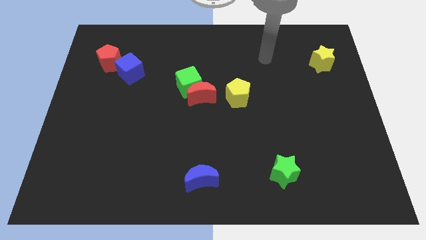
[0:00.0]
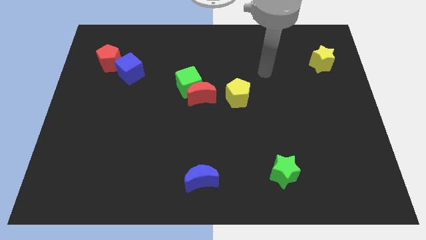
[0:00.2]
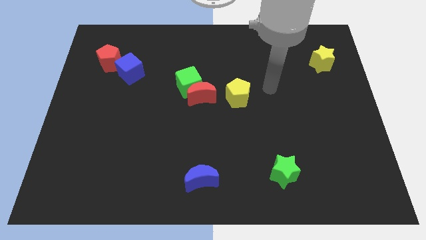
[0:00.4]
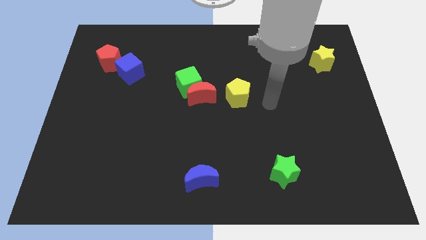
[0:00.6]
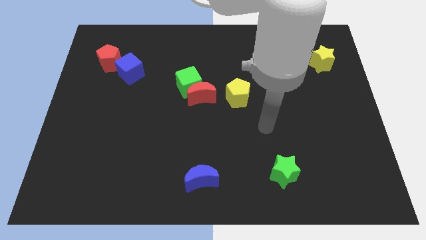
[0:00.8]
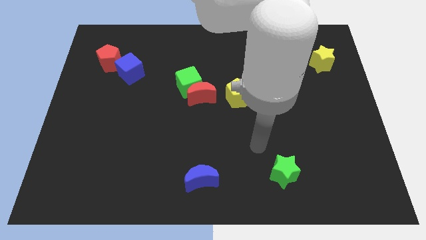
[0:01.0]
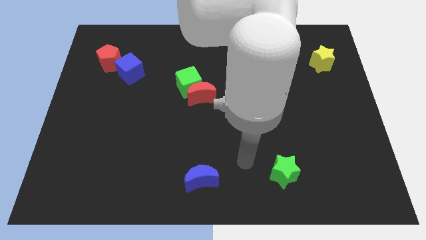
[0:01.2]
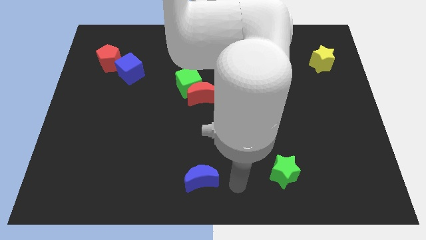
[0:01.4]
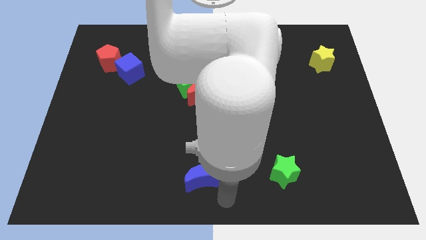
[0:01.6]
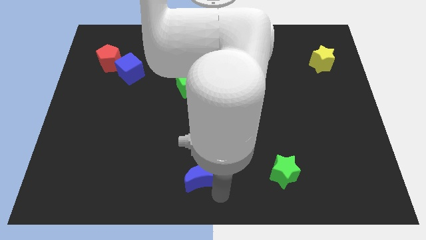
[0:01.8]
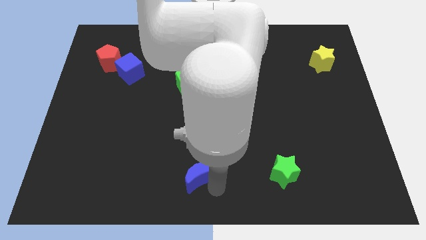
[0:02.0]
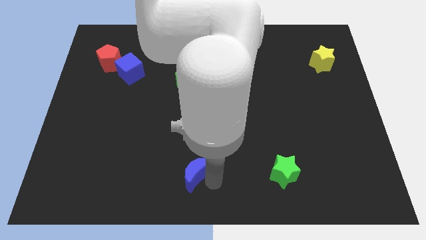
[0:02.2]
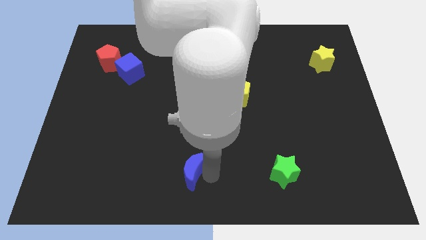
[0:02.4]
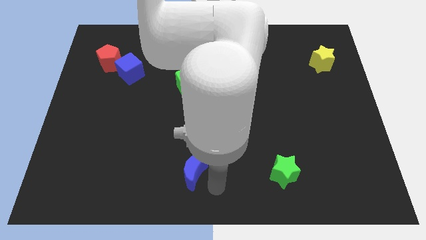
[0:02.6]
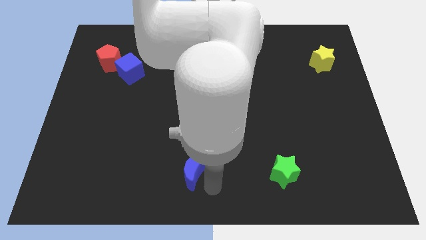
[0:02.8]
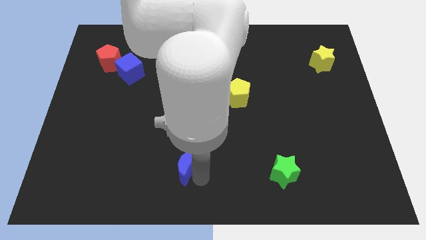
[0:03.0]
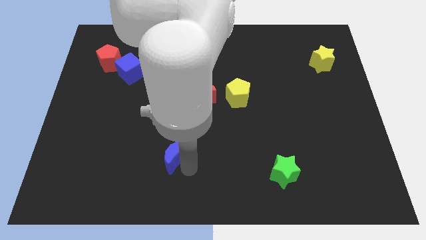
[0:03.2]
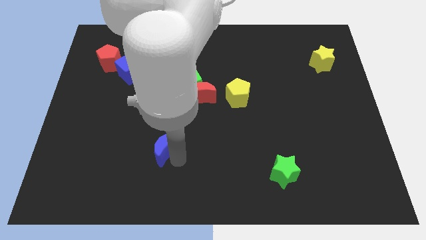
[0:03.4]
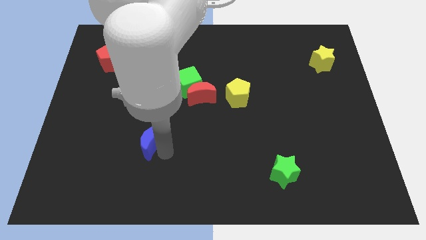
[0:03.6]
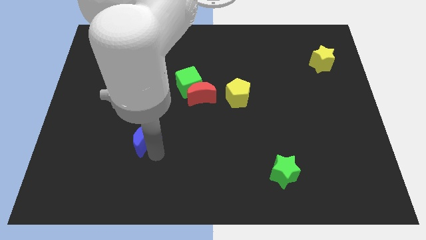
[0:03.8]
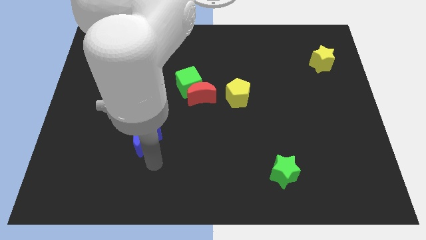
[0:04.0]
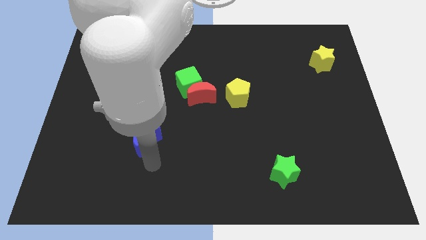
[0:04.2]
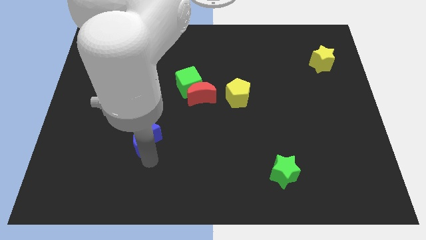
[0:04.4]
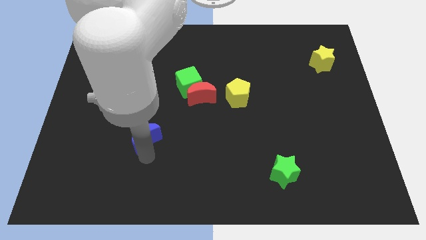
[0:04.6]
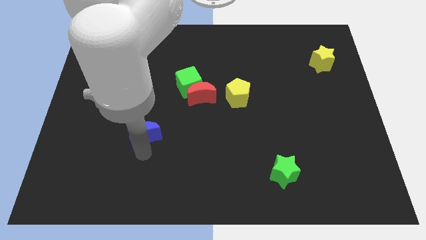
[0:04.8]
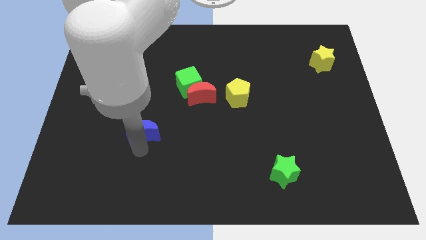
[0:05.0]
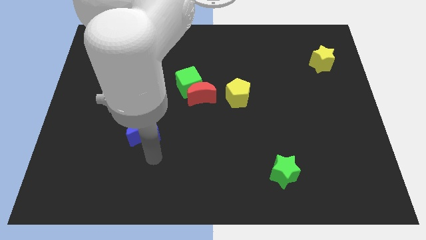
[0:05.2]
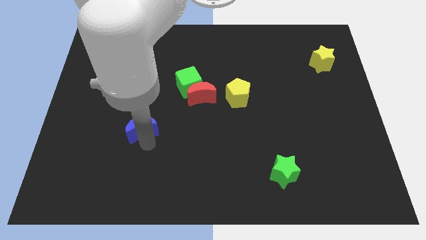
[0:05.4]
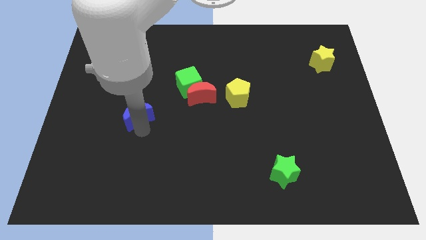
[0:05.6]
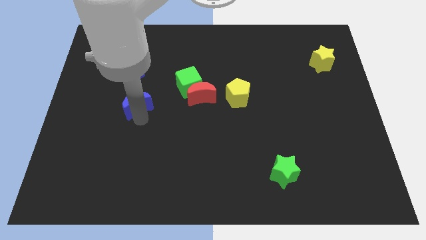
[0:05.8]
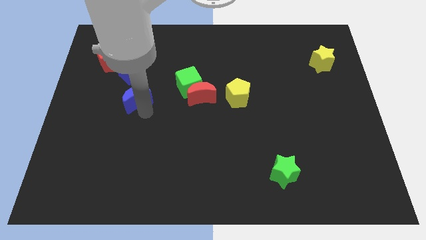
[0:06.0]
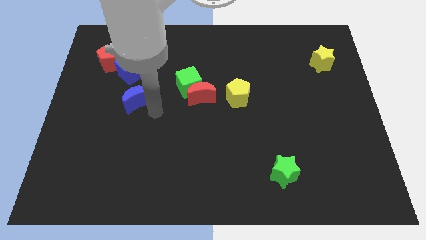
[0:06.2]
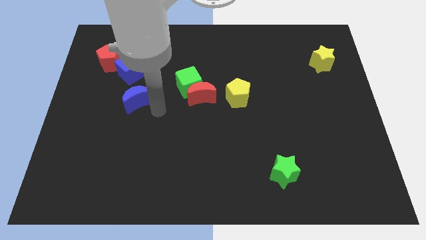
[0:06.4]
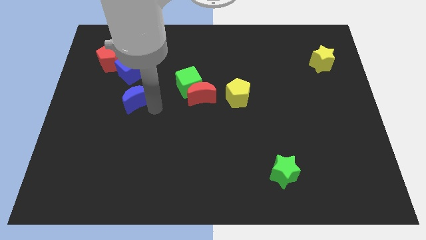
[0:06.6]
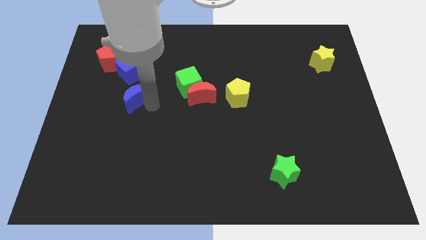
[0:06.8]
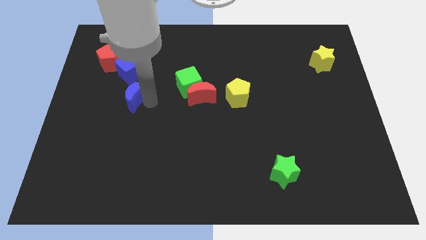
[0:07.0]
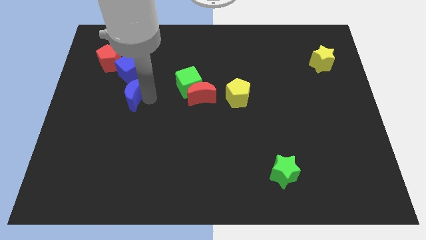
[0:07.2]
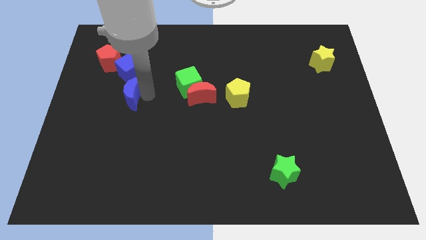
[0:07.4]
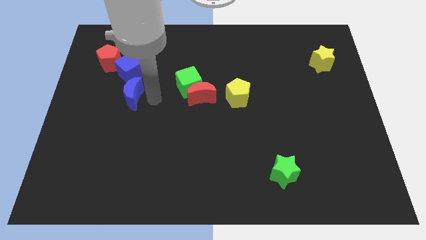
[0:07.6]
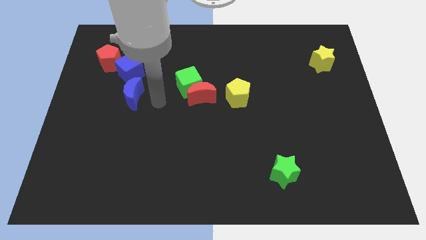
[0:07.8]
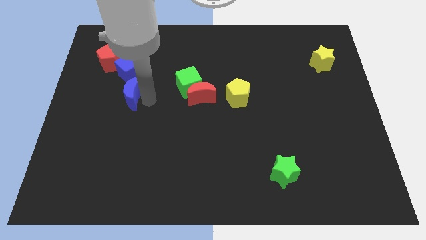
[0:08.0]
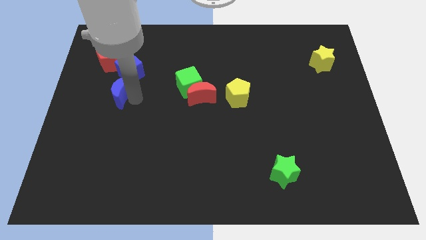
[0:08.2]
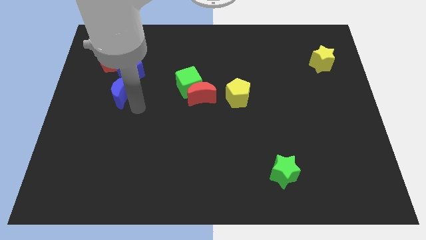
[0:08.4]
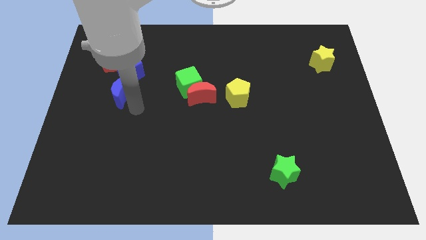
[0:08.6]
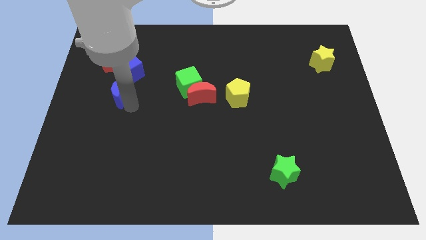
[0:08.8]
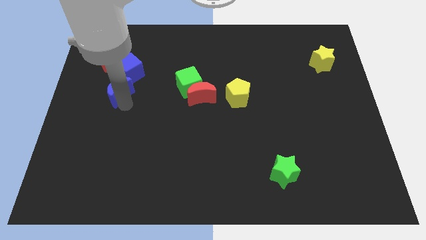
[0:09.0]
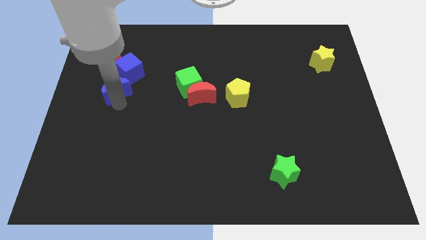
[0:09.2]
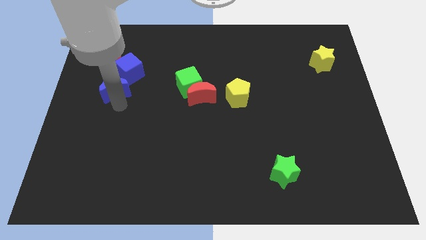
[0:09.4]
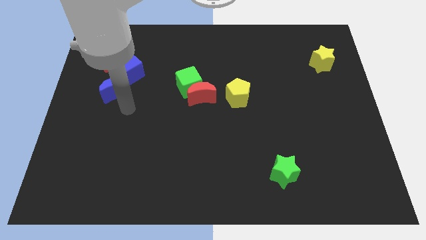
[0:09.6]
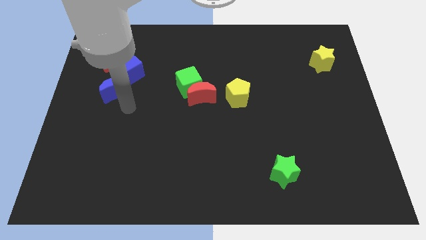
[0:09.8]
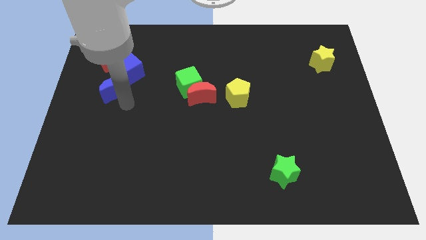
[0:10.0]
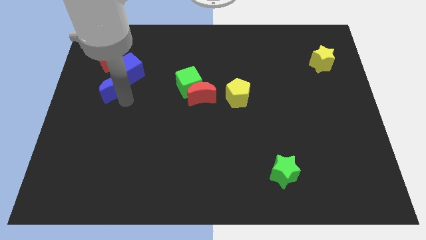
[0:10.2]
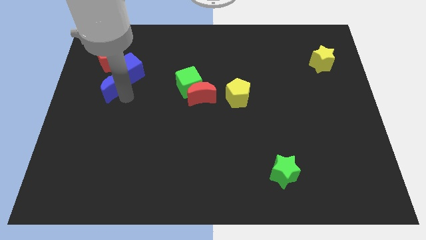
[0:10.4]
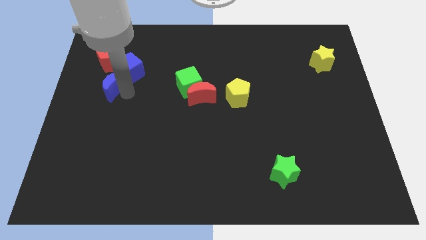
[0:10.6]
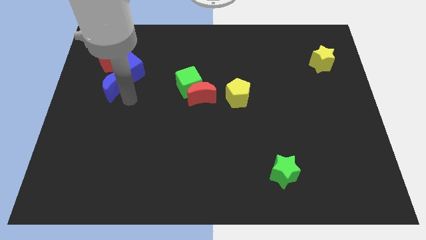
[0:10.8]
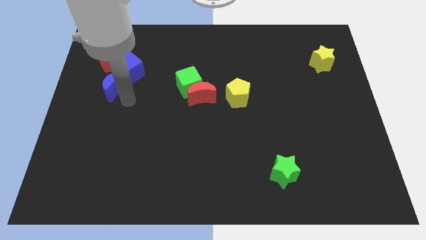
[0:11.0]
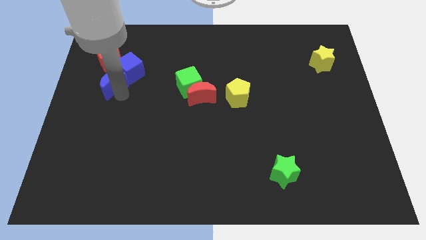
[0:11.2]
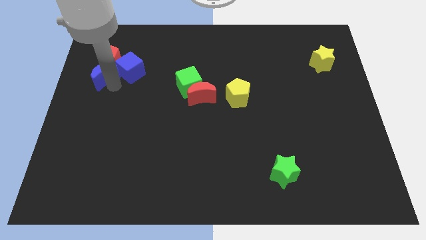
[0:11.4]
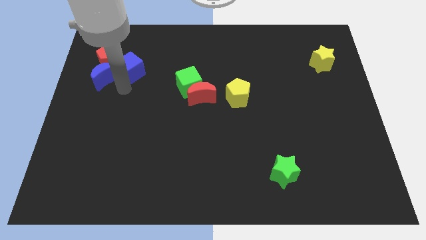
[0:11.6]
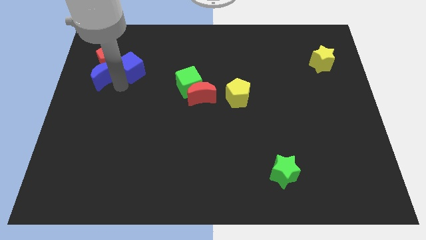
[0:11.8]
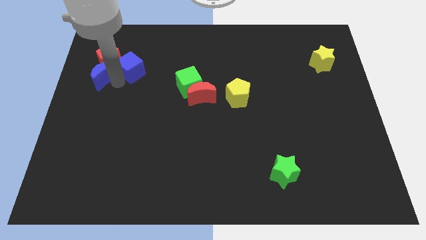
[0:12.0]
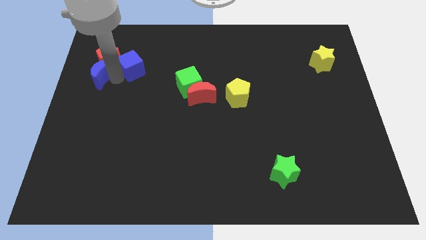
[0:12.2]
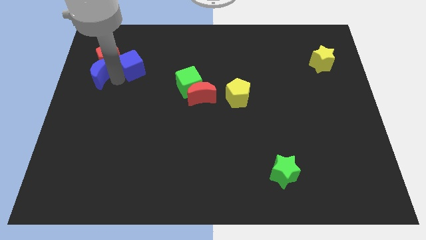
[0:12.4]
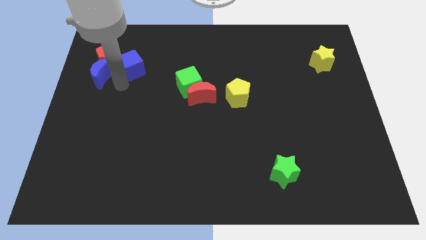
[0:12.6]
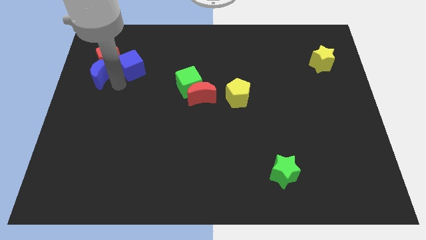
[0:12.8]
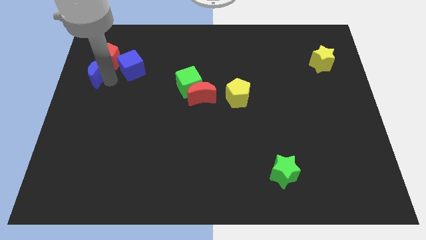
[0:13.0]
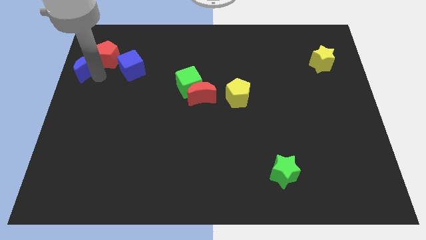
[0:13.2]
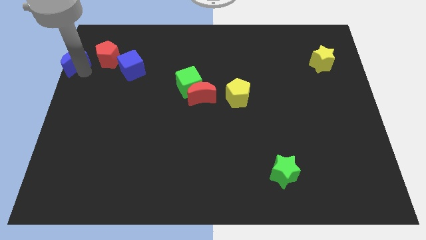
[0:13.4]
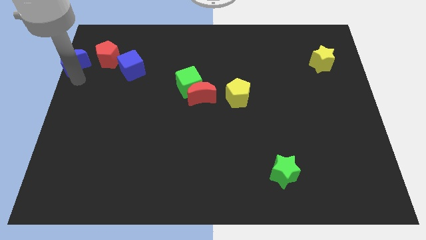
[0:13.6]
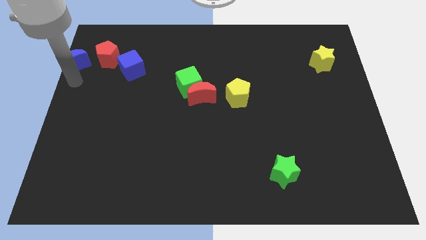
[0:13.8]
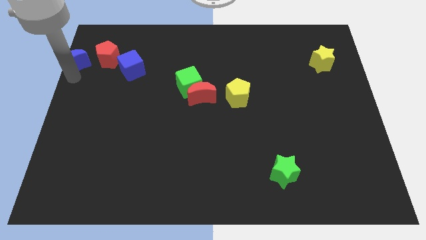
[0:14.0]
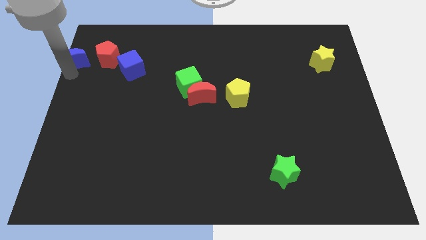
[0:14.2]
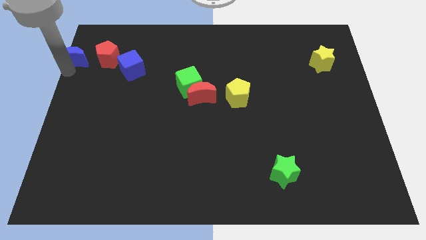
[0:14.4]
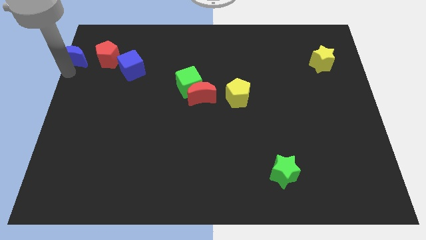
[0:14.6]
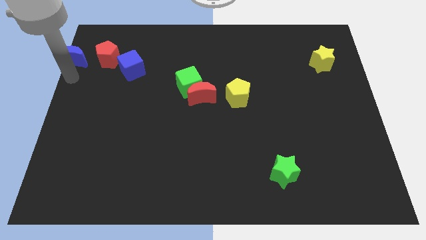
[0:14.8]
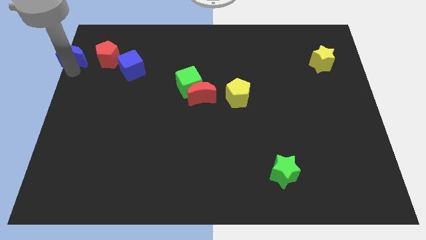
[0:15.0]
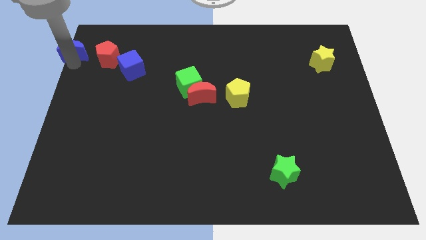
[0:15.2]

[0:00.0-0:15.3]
slide the blue moon to the top left
